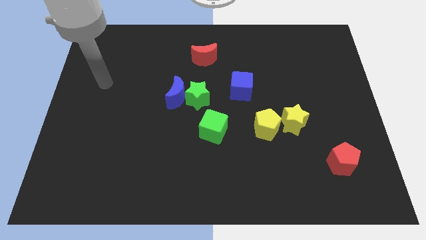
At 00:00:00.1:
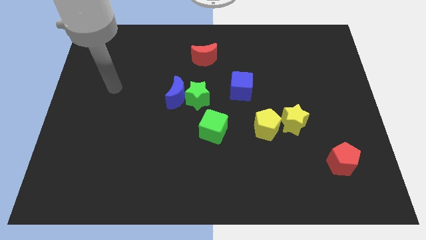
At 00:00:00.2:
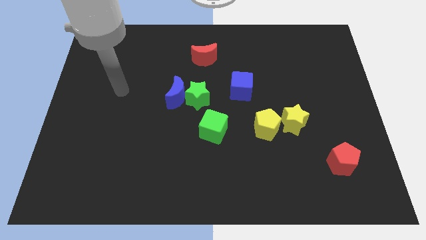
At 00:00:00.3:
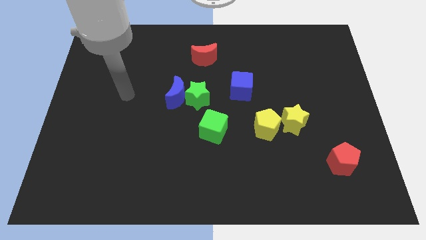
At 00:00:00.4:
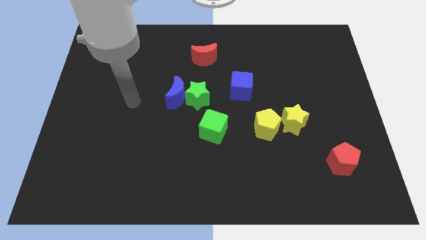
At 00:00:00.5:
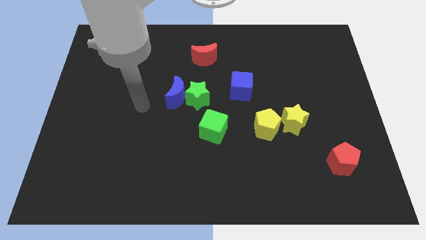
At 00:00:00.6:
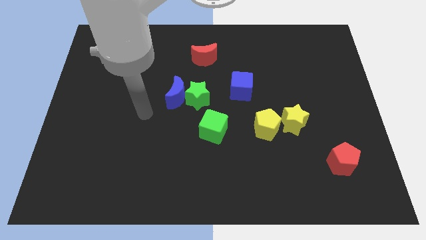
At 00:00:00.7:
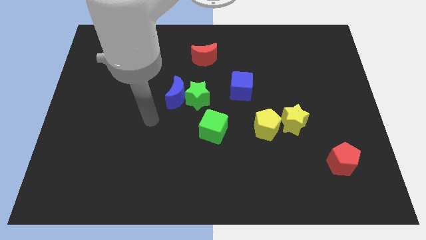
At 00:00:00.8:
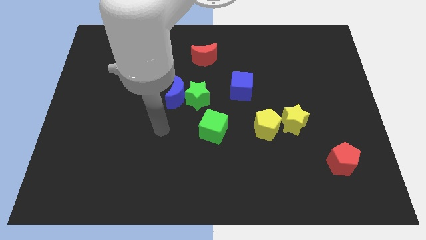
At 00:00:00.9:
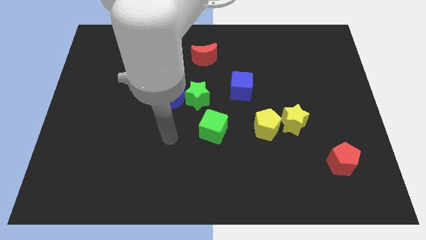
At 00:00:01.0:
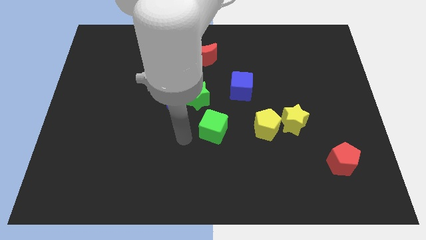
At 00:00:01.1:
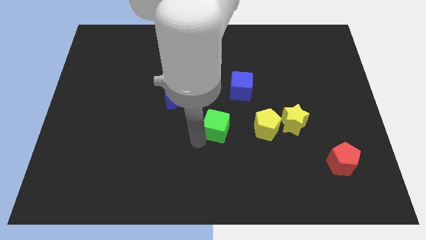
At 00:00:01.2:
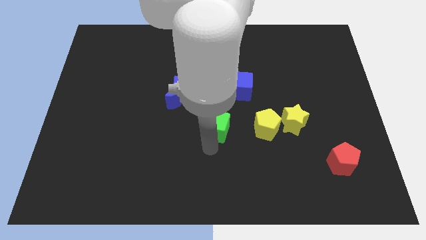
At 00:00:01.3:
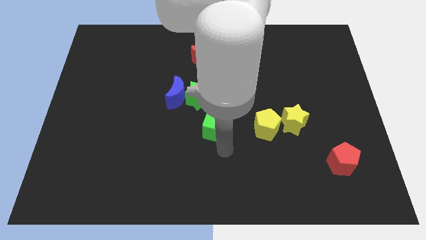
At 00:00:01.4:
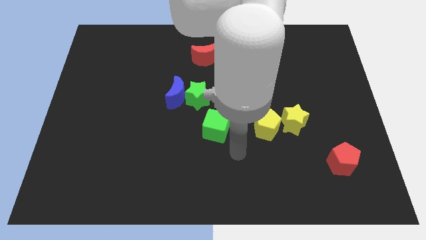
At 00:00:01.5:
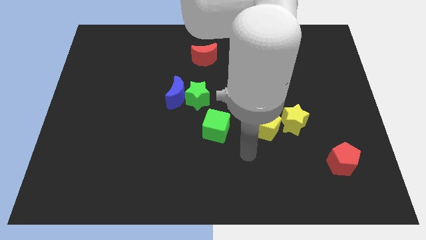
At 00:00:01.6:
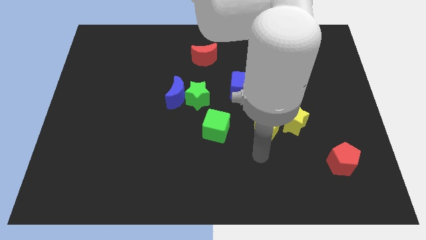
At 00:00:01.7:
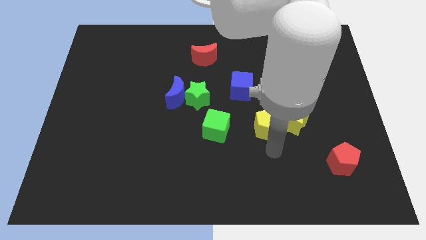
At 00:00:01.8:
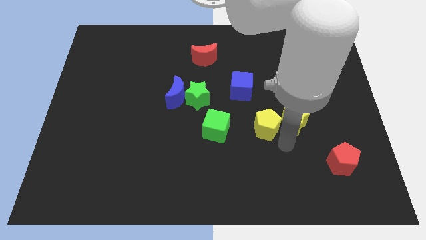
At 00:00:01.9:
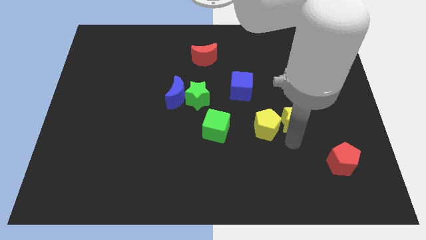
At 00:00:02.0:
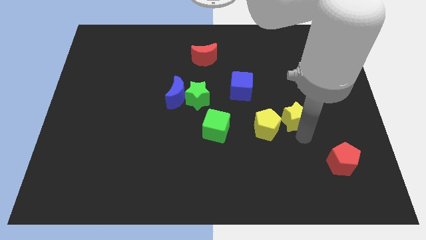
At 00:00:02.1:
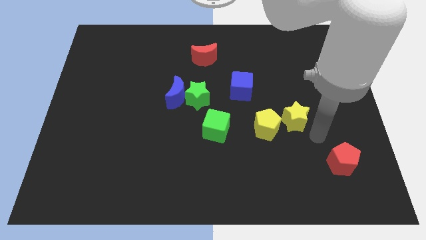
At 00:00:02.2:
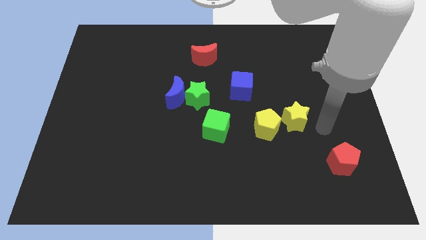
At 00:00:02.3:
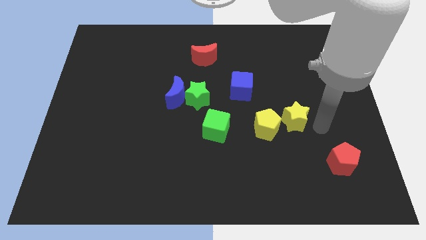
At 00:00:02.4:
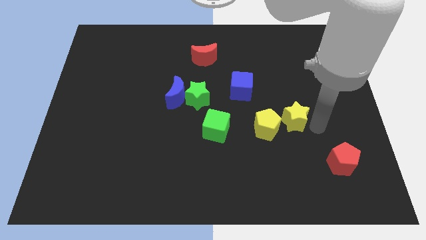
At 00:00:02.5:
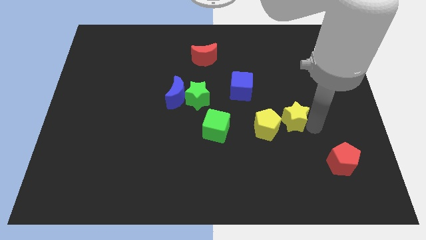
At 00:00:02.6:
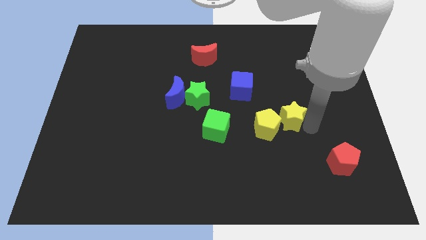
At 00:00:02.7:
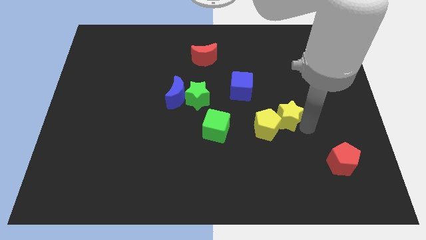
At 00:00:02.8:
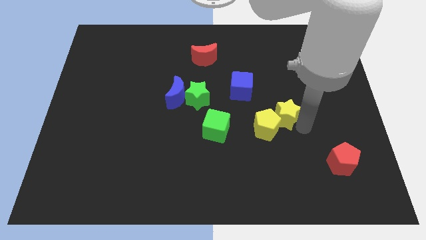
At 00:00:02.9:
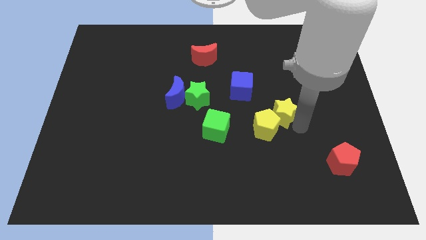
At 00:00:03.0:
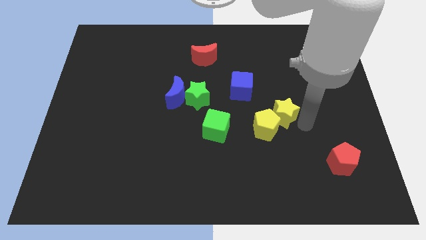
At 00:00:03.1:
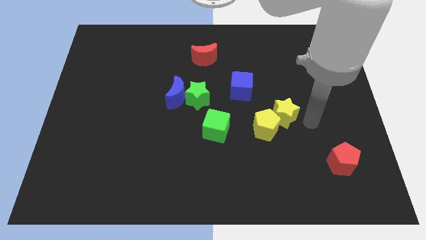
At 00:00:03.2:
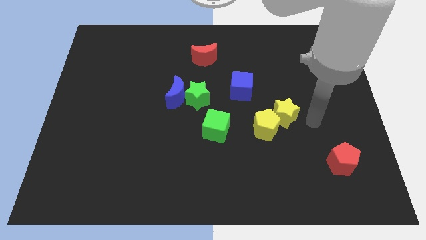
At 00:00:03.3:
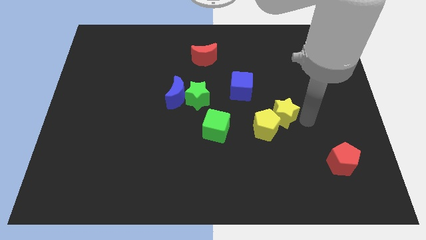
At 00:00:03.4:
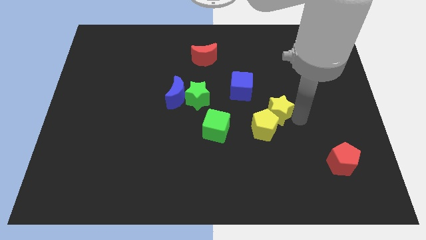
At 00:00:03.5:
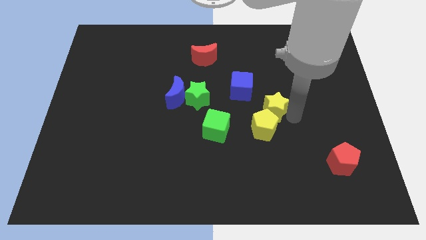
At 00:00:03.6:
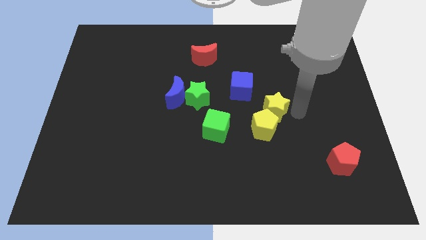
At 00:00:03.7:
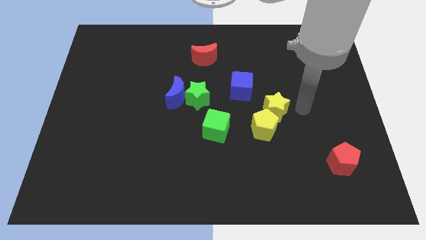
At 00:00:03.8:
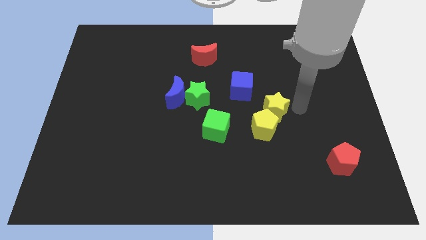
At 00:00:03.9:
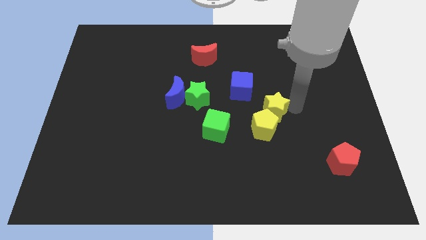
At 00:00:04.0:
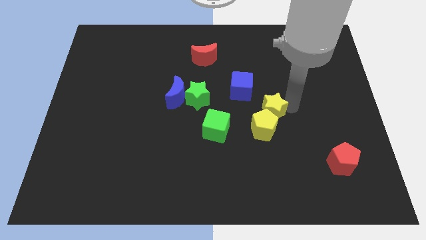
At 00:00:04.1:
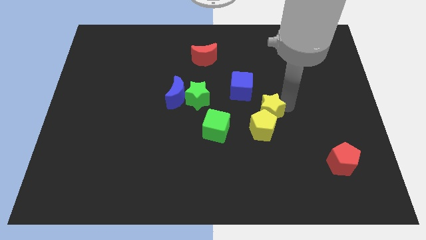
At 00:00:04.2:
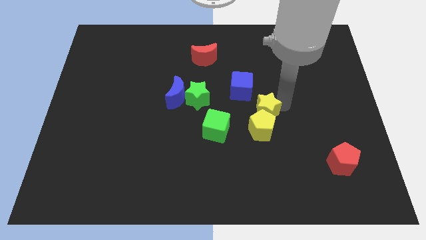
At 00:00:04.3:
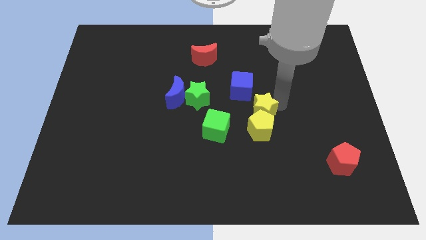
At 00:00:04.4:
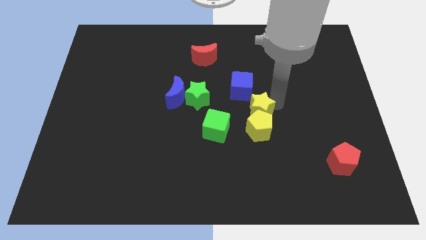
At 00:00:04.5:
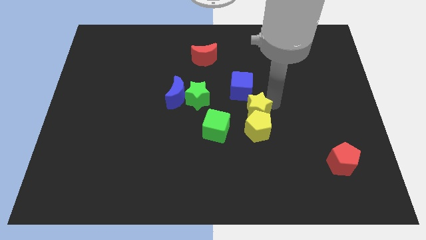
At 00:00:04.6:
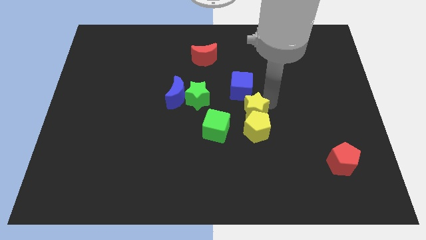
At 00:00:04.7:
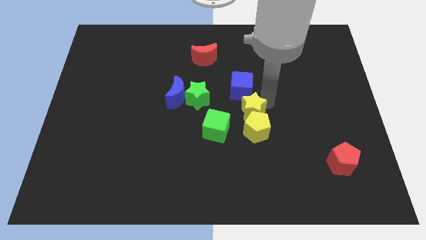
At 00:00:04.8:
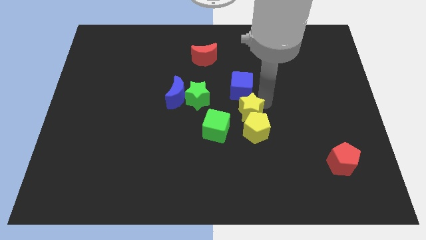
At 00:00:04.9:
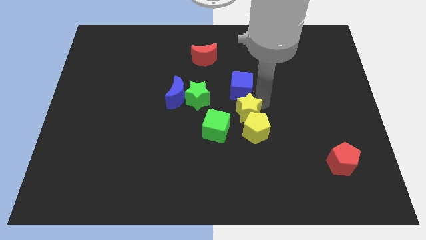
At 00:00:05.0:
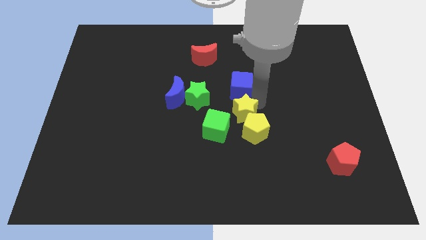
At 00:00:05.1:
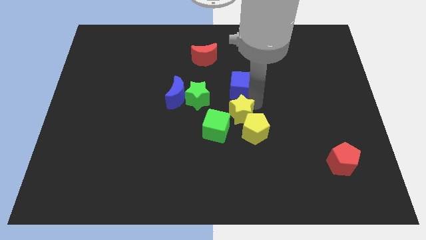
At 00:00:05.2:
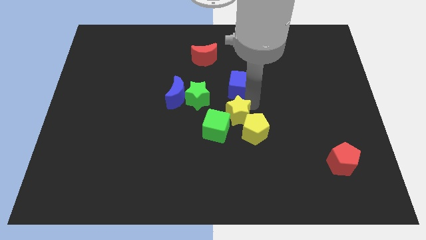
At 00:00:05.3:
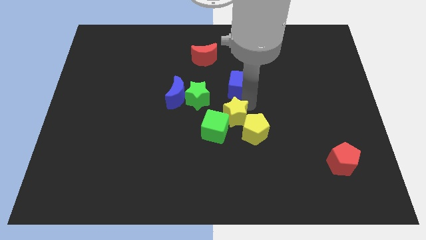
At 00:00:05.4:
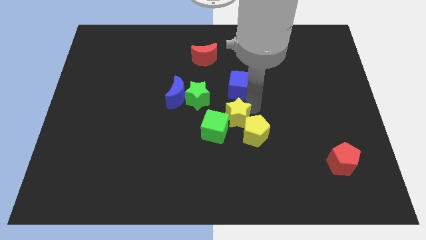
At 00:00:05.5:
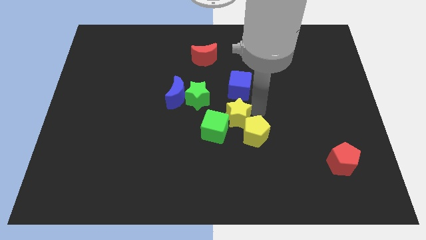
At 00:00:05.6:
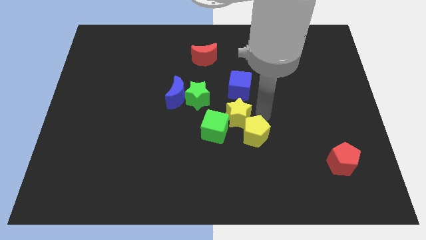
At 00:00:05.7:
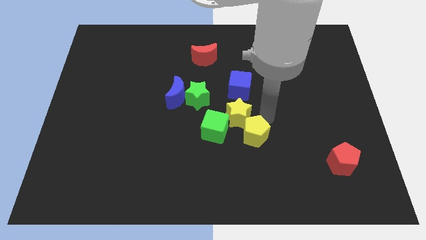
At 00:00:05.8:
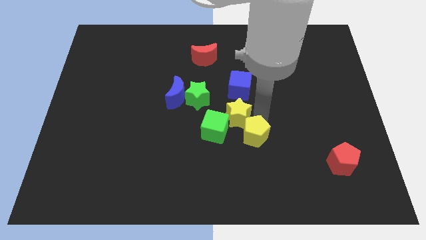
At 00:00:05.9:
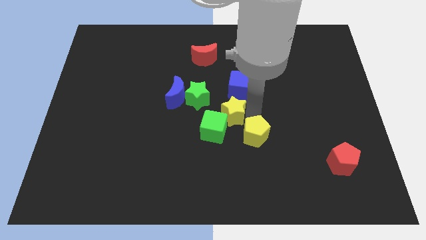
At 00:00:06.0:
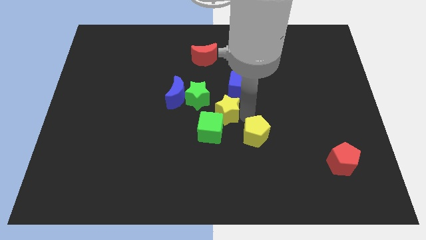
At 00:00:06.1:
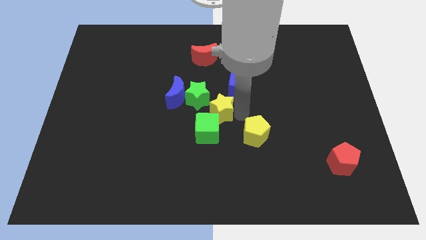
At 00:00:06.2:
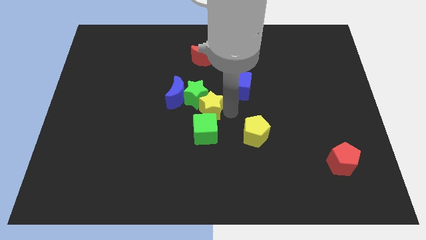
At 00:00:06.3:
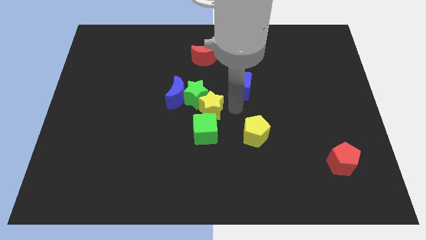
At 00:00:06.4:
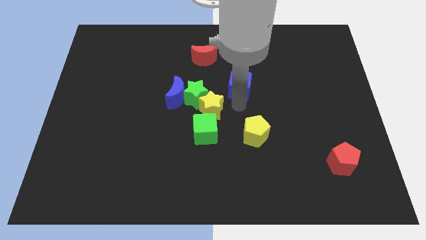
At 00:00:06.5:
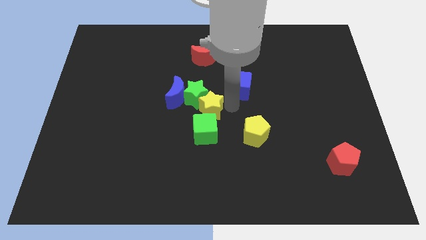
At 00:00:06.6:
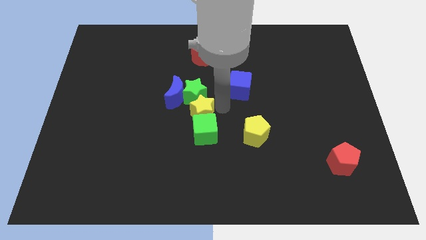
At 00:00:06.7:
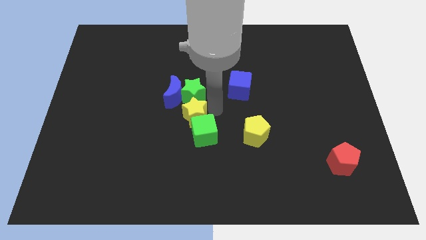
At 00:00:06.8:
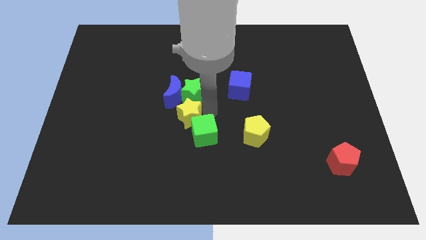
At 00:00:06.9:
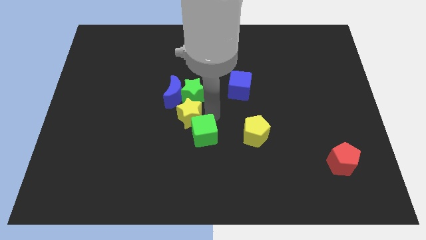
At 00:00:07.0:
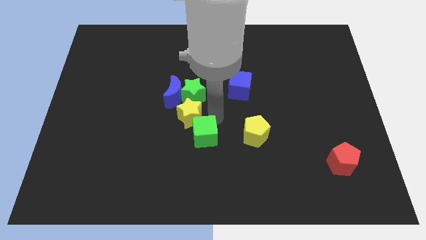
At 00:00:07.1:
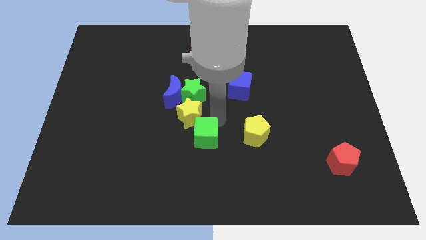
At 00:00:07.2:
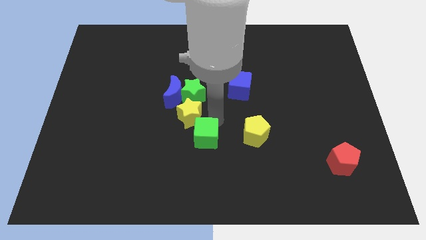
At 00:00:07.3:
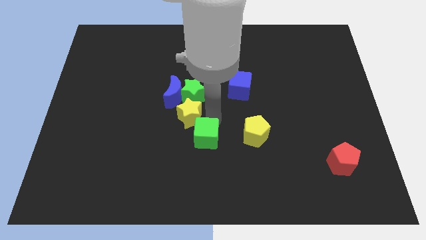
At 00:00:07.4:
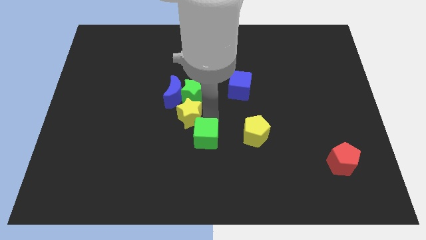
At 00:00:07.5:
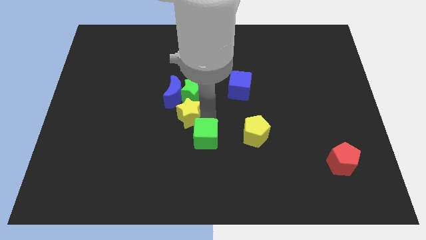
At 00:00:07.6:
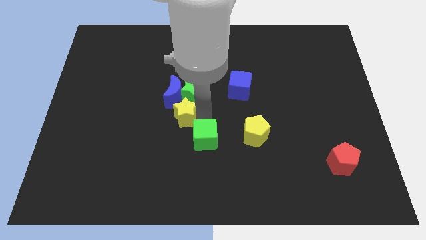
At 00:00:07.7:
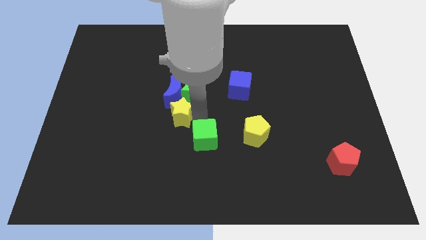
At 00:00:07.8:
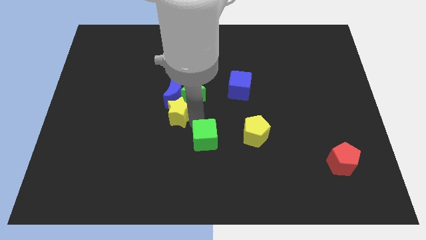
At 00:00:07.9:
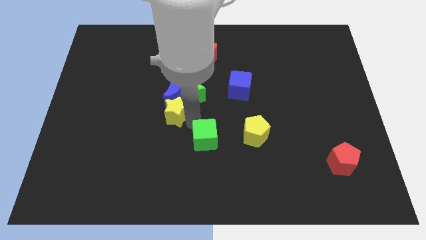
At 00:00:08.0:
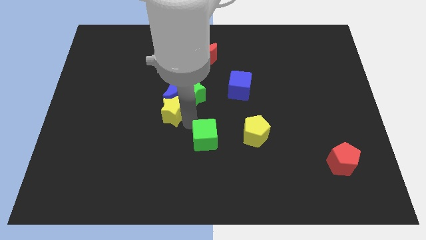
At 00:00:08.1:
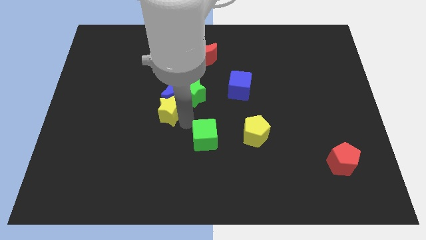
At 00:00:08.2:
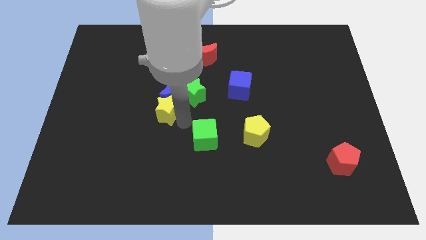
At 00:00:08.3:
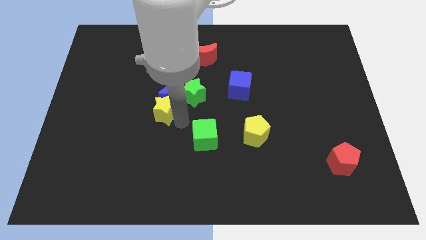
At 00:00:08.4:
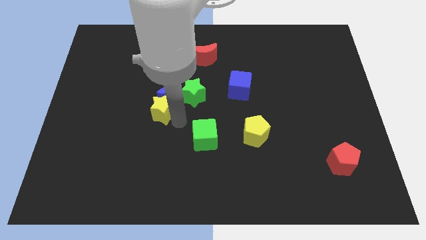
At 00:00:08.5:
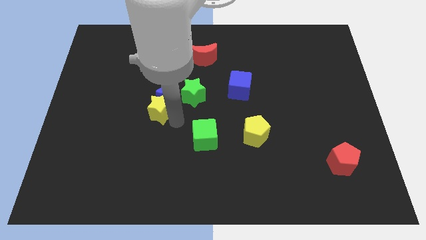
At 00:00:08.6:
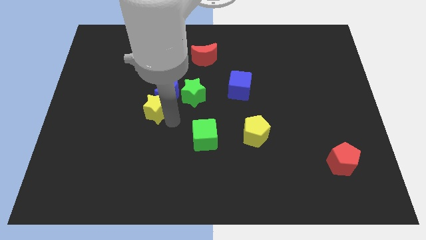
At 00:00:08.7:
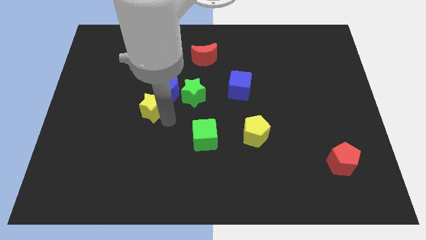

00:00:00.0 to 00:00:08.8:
move the yellow star left of the blue moon
